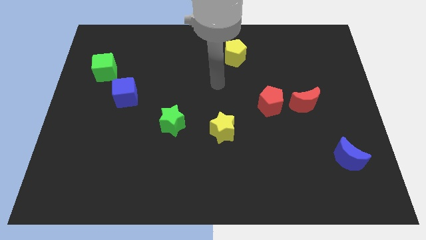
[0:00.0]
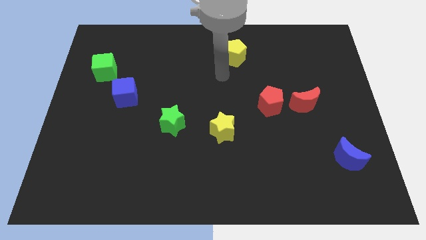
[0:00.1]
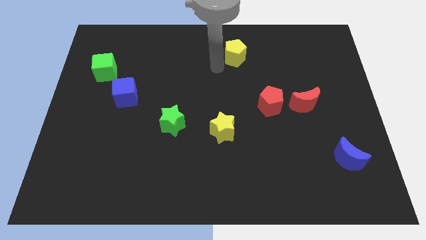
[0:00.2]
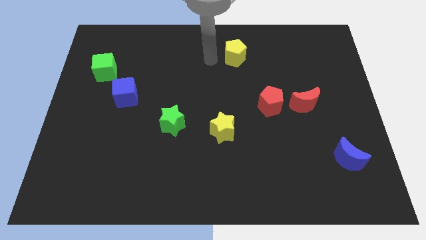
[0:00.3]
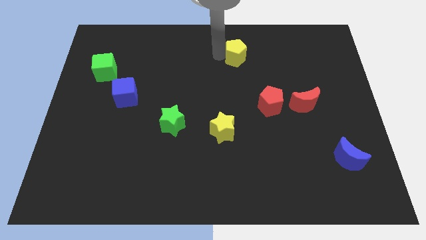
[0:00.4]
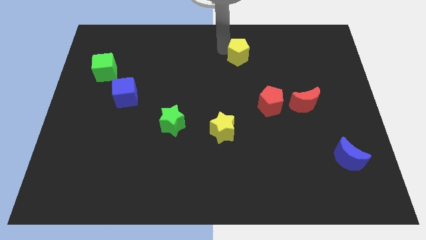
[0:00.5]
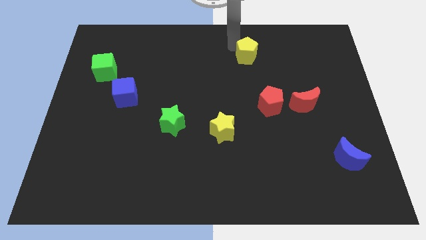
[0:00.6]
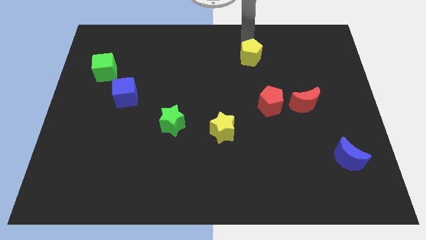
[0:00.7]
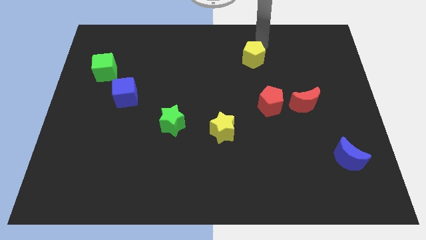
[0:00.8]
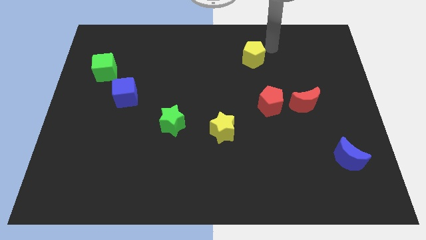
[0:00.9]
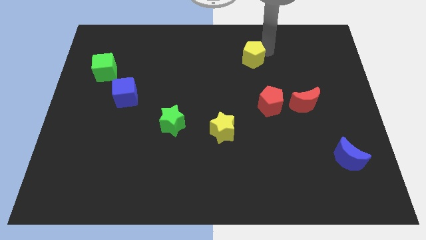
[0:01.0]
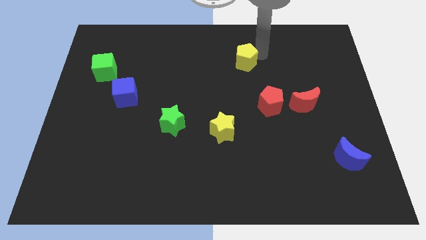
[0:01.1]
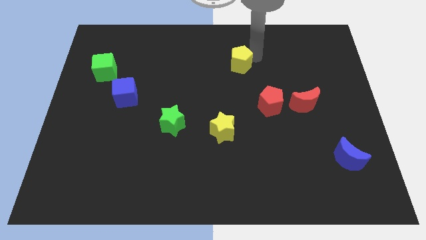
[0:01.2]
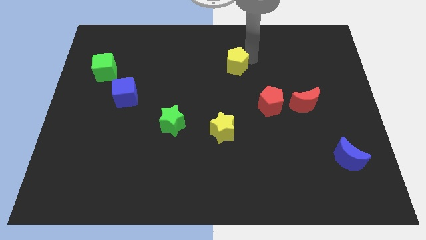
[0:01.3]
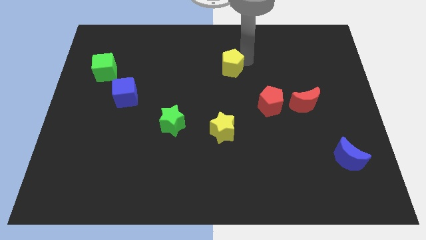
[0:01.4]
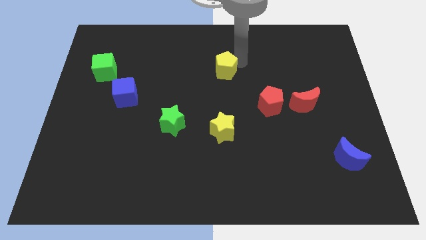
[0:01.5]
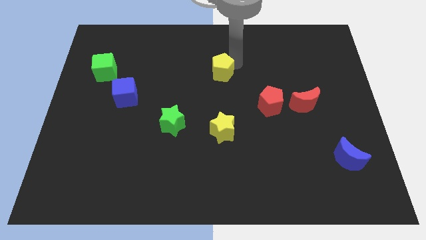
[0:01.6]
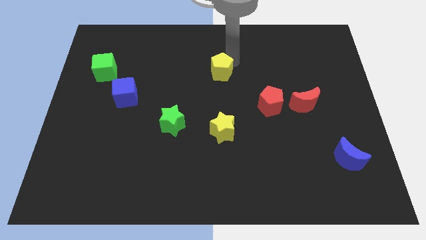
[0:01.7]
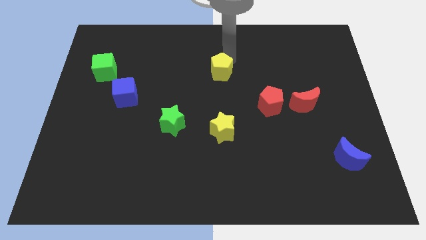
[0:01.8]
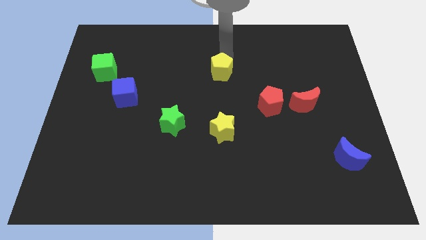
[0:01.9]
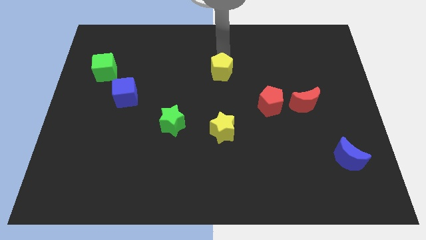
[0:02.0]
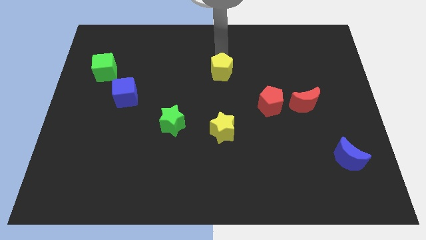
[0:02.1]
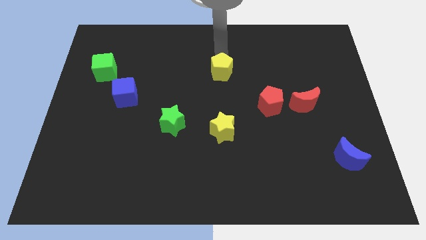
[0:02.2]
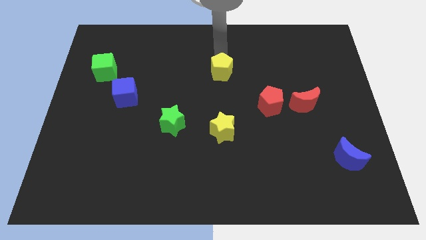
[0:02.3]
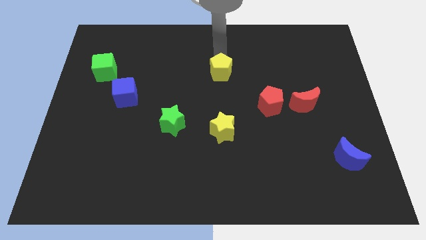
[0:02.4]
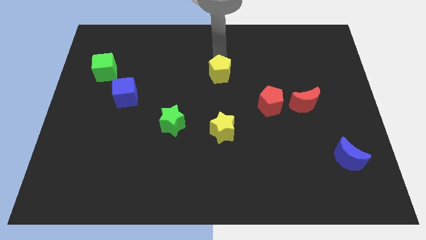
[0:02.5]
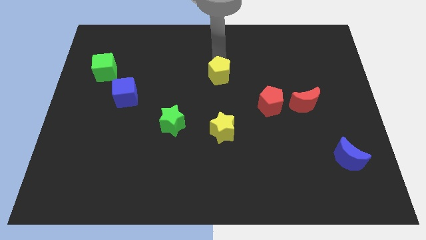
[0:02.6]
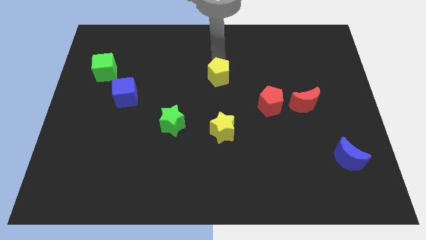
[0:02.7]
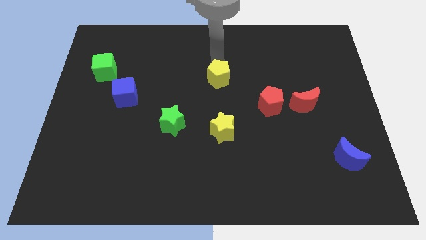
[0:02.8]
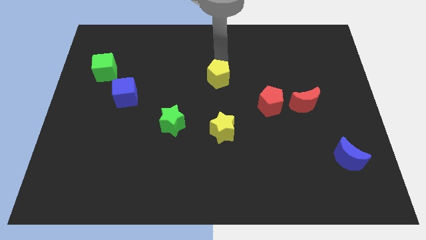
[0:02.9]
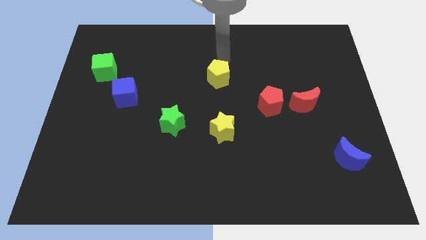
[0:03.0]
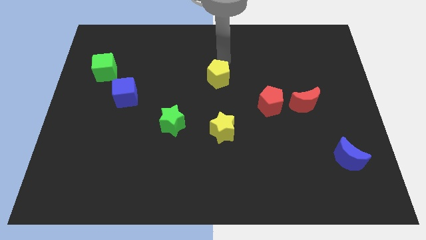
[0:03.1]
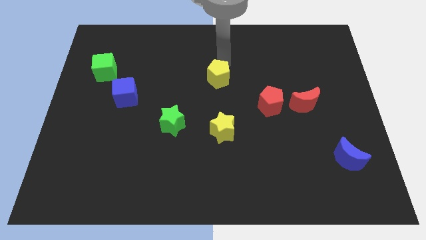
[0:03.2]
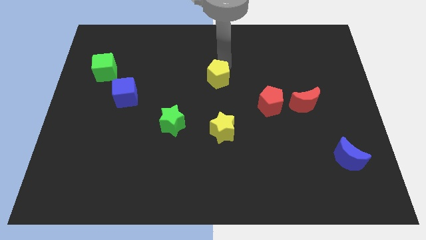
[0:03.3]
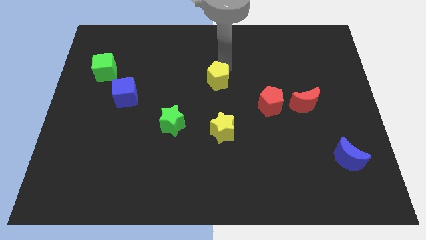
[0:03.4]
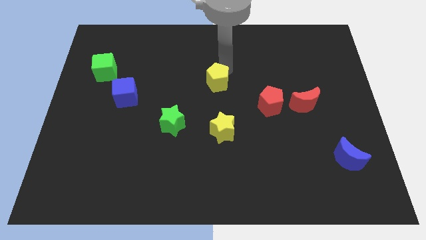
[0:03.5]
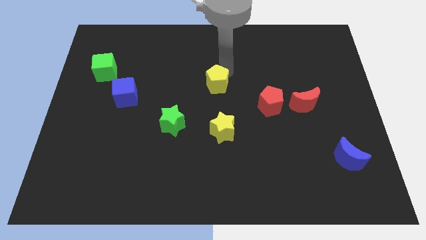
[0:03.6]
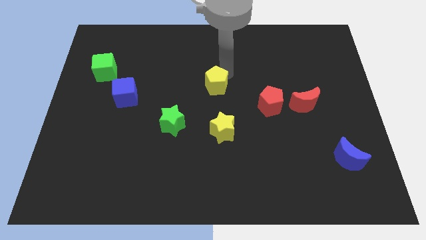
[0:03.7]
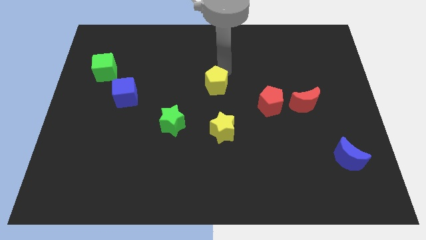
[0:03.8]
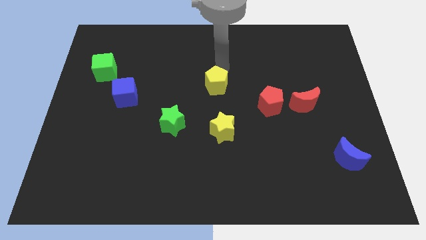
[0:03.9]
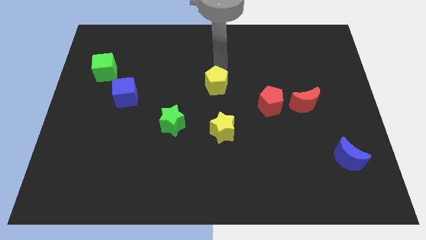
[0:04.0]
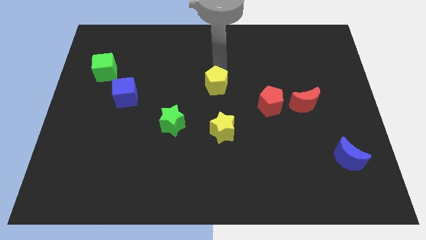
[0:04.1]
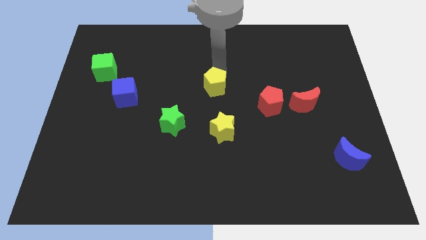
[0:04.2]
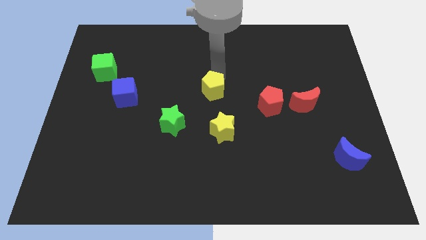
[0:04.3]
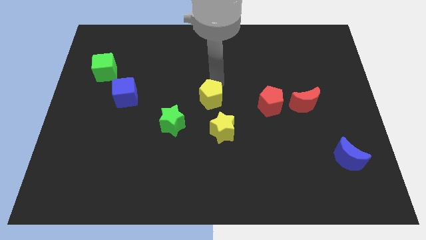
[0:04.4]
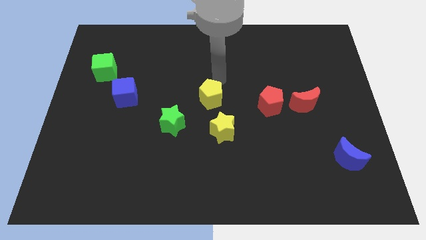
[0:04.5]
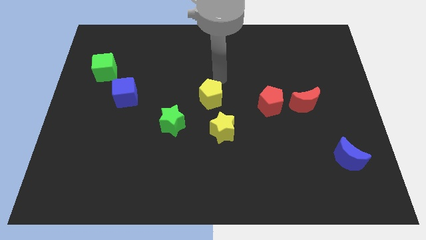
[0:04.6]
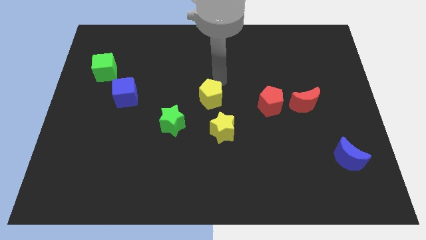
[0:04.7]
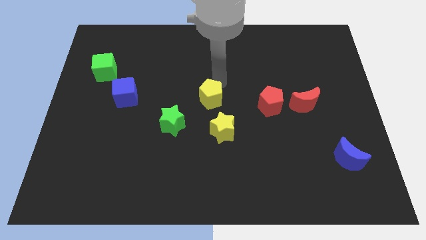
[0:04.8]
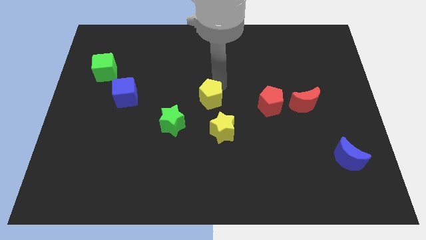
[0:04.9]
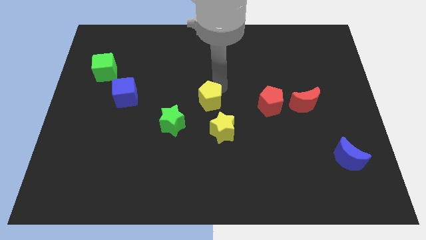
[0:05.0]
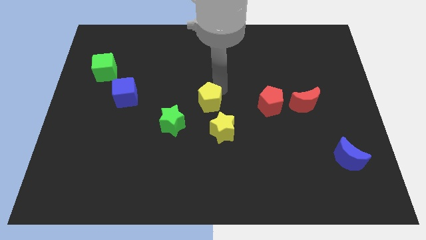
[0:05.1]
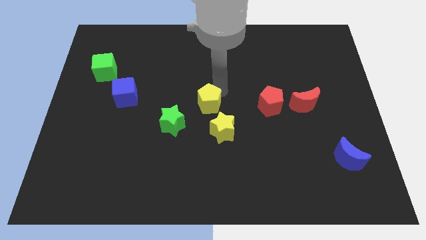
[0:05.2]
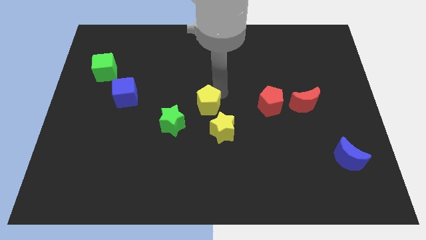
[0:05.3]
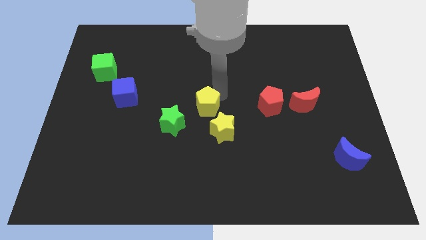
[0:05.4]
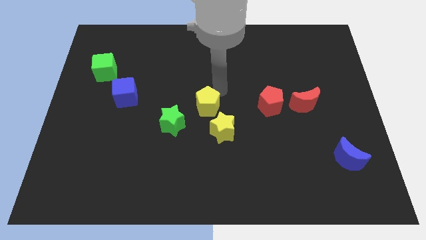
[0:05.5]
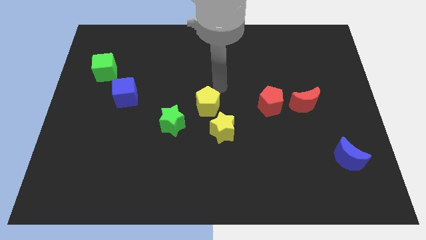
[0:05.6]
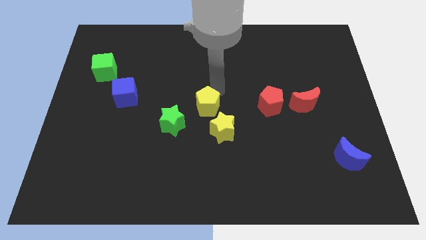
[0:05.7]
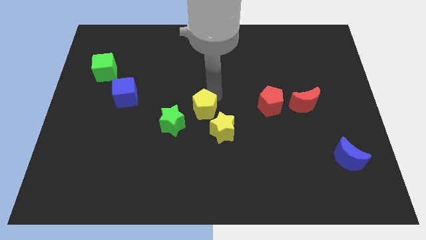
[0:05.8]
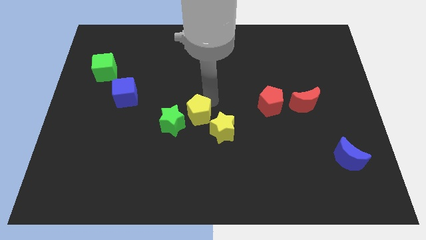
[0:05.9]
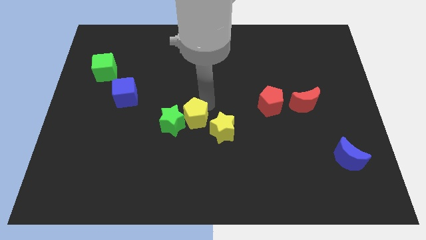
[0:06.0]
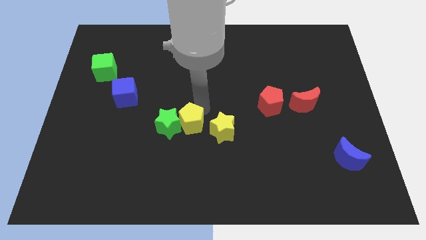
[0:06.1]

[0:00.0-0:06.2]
move the yellow pentagon diagonally down and to the right of the green star

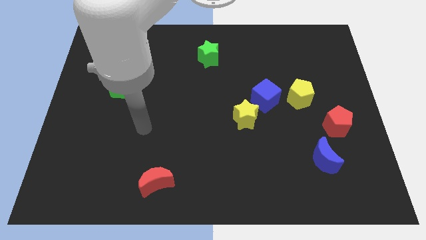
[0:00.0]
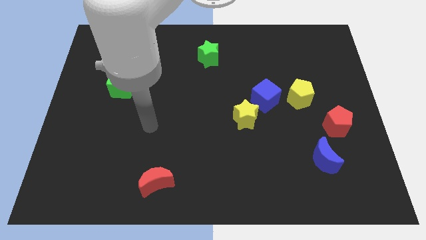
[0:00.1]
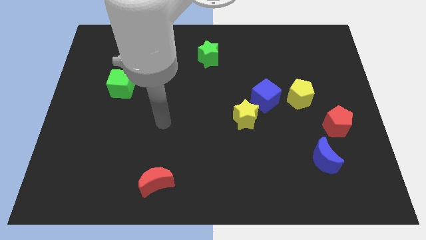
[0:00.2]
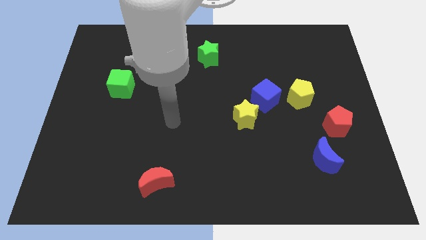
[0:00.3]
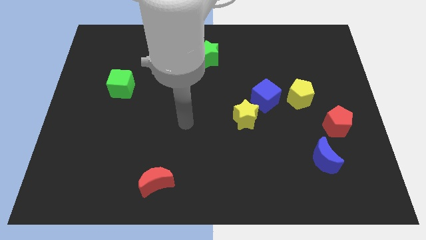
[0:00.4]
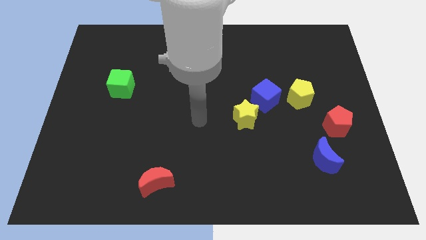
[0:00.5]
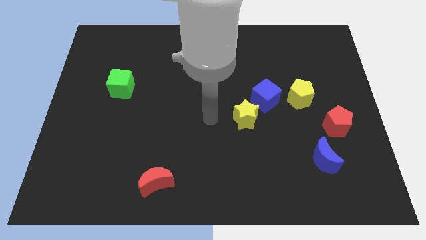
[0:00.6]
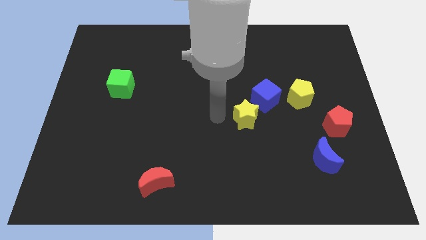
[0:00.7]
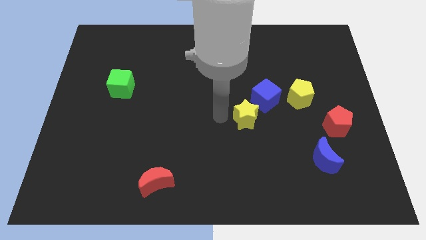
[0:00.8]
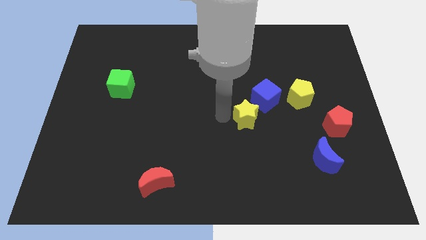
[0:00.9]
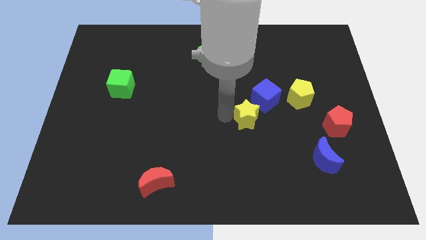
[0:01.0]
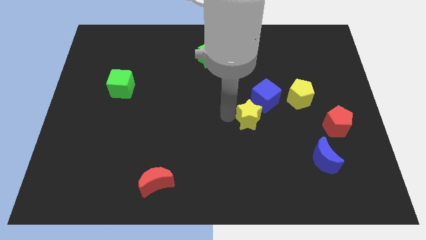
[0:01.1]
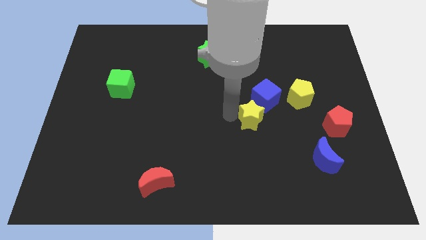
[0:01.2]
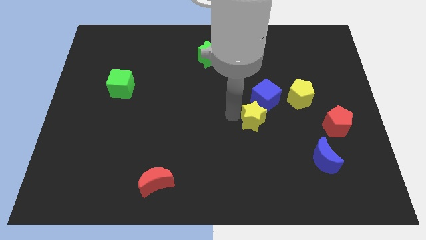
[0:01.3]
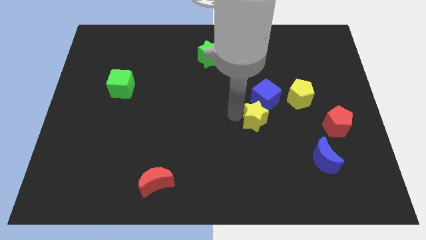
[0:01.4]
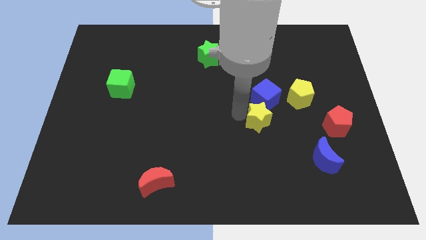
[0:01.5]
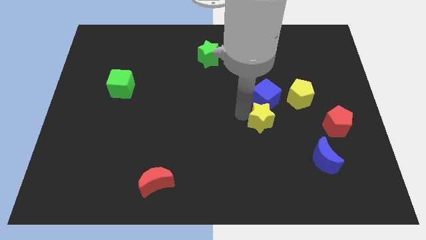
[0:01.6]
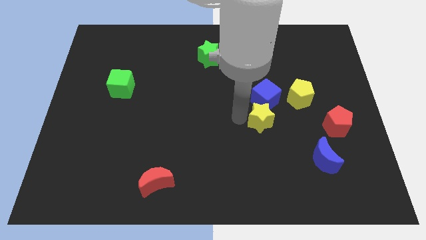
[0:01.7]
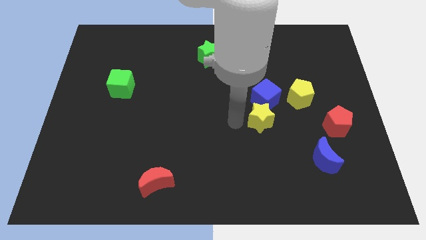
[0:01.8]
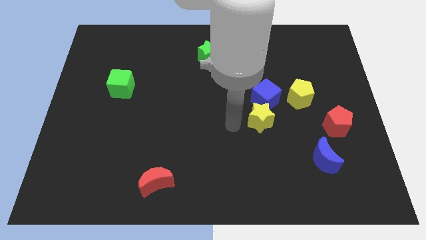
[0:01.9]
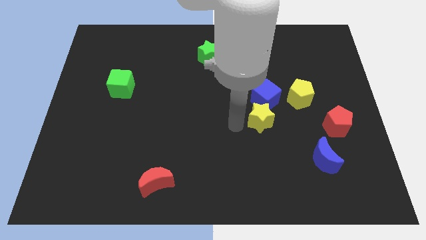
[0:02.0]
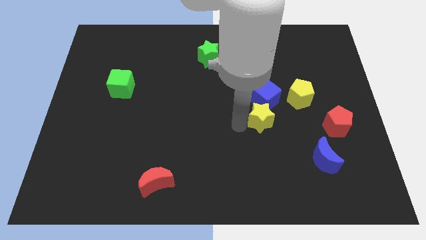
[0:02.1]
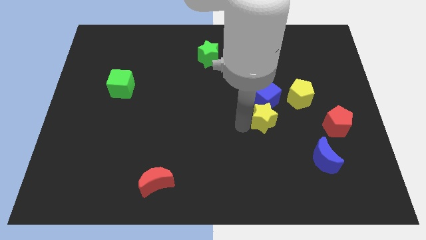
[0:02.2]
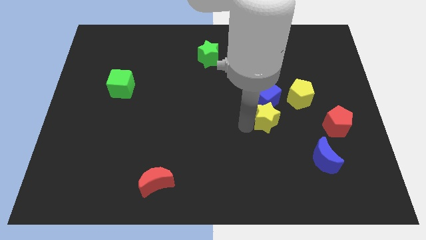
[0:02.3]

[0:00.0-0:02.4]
push the yellow star to the bottom right side of the blue cube
